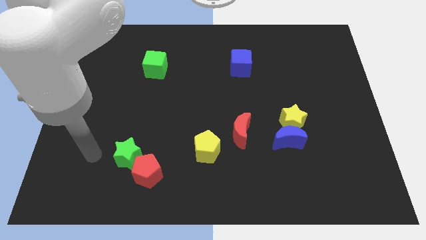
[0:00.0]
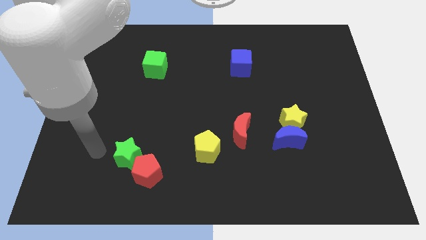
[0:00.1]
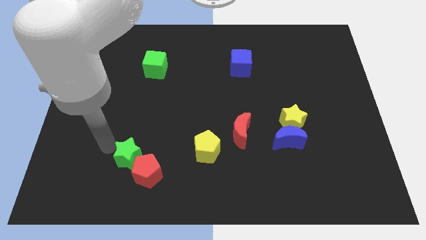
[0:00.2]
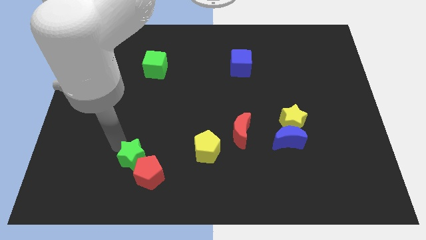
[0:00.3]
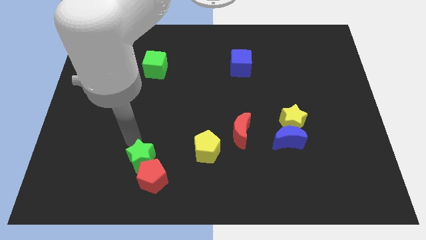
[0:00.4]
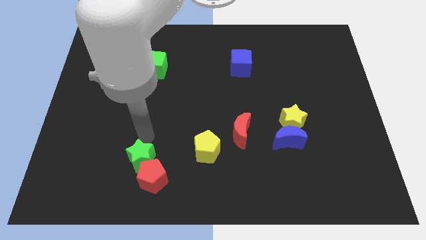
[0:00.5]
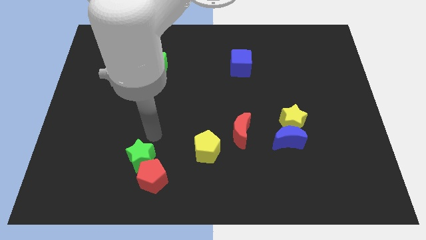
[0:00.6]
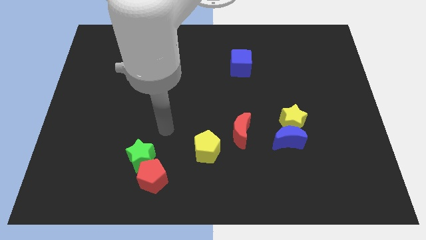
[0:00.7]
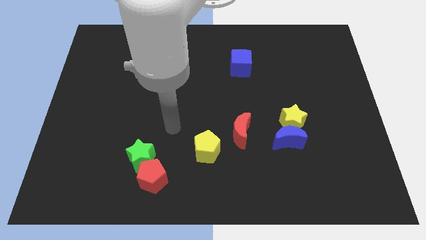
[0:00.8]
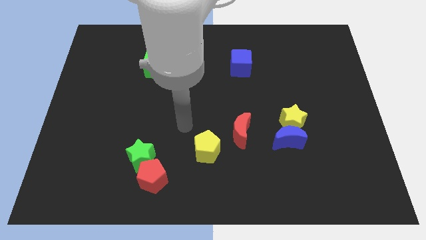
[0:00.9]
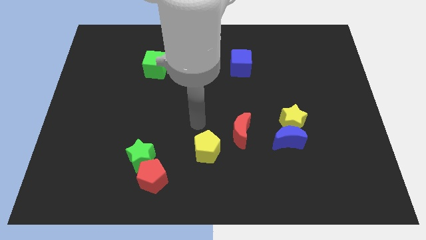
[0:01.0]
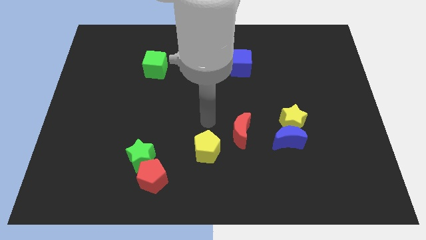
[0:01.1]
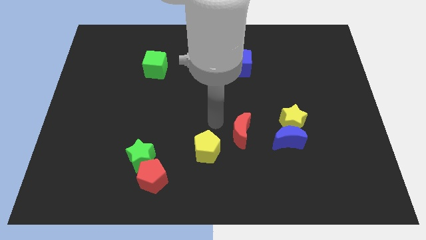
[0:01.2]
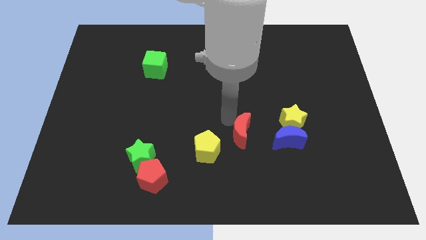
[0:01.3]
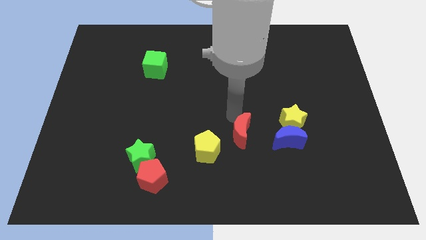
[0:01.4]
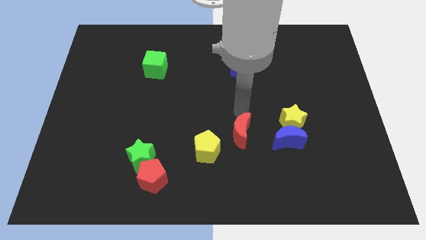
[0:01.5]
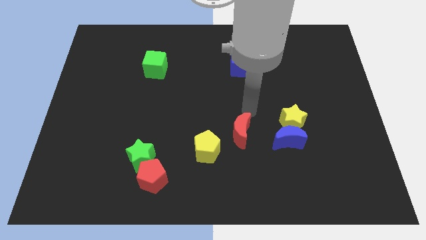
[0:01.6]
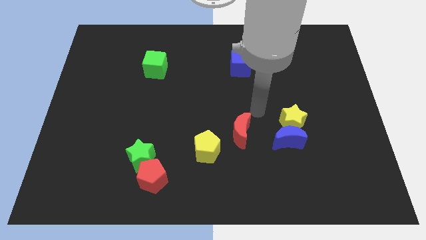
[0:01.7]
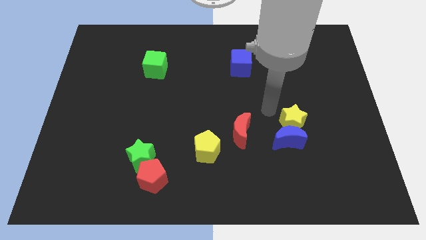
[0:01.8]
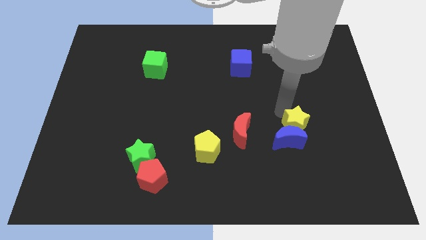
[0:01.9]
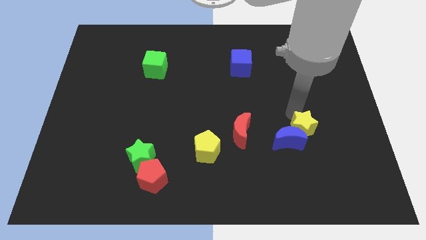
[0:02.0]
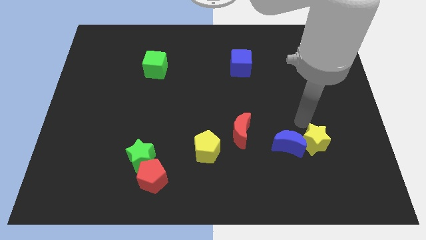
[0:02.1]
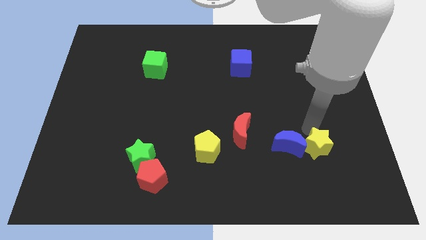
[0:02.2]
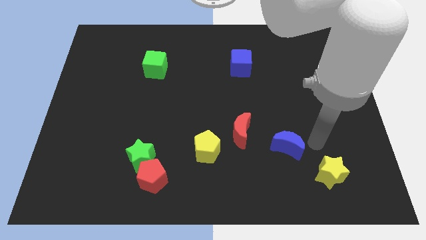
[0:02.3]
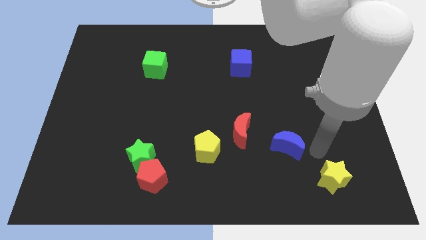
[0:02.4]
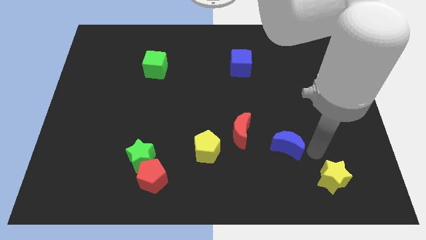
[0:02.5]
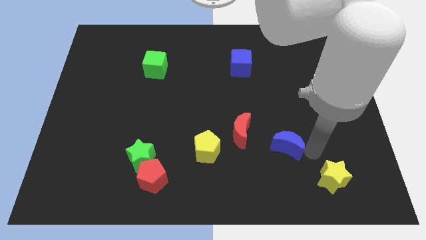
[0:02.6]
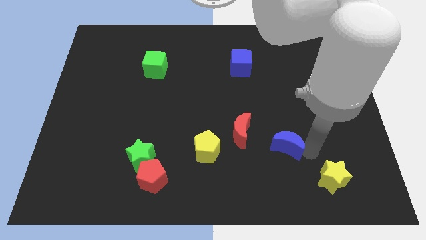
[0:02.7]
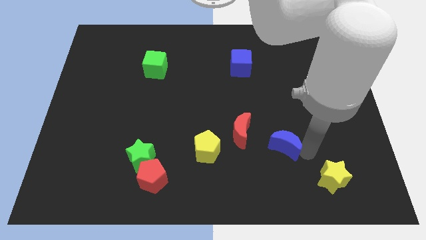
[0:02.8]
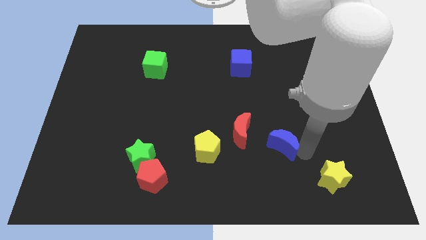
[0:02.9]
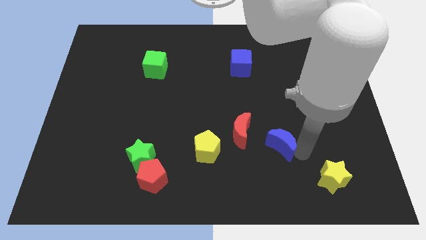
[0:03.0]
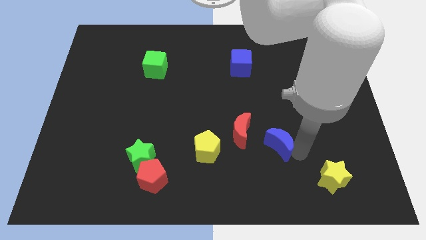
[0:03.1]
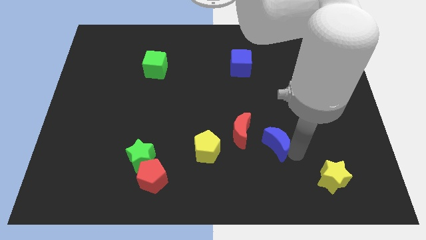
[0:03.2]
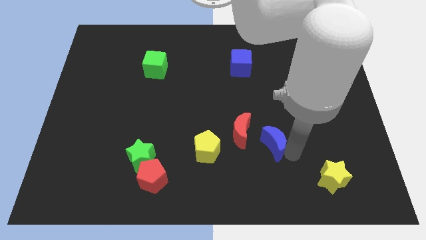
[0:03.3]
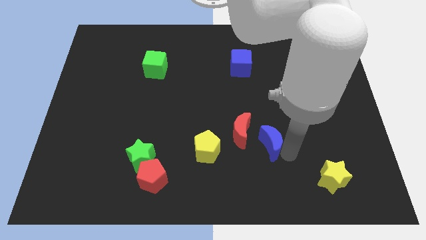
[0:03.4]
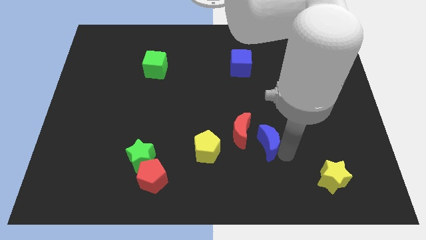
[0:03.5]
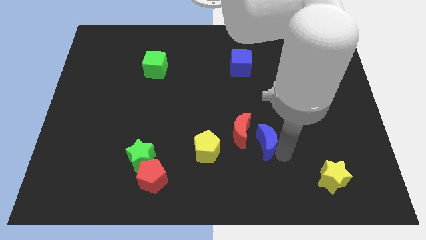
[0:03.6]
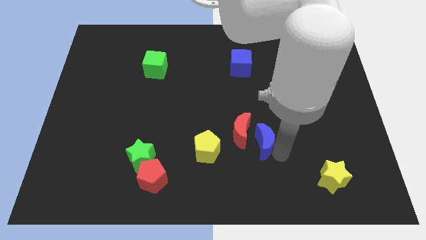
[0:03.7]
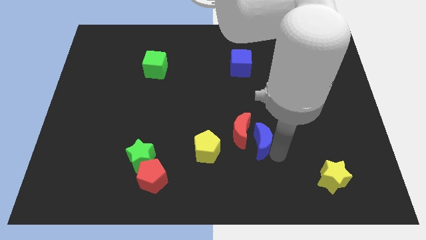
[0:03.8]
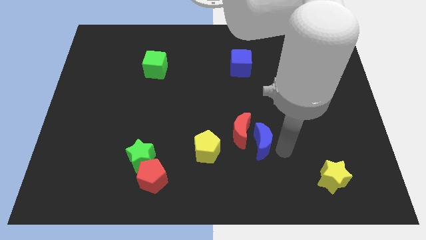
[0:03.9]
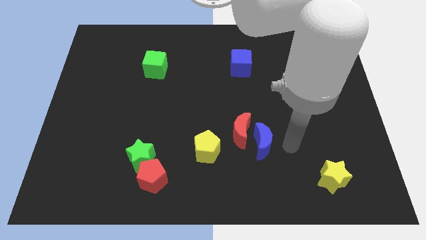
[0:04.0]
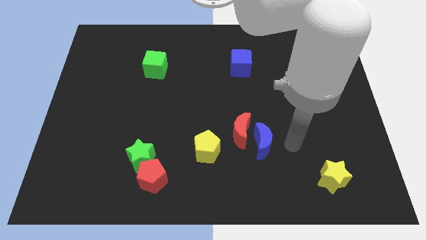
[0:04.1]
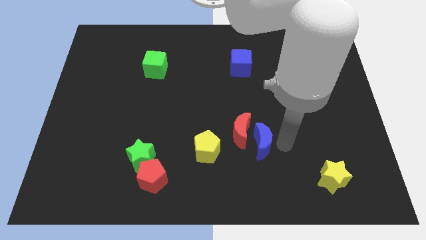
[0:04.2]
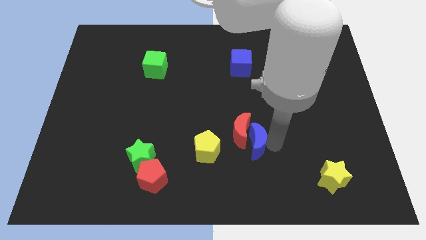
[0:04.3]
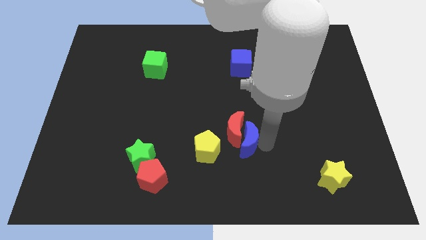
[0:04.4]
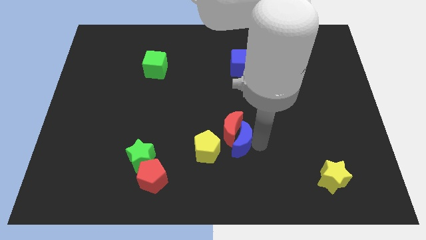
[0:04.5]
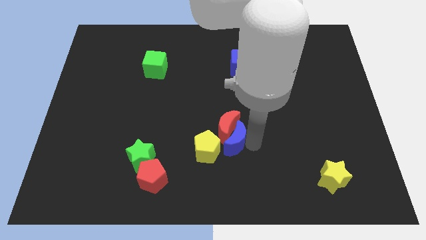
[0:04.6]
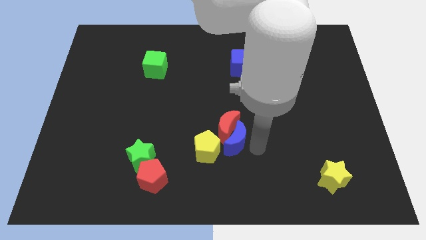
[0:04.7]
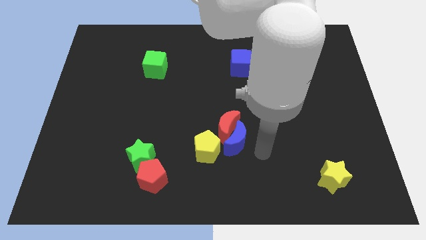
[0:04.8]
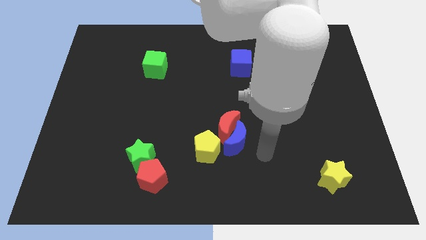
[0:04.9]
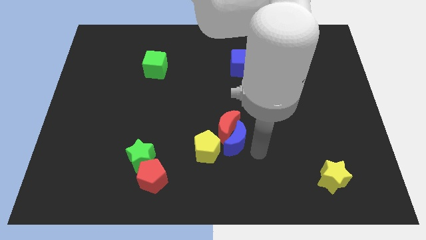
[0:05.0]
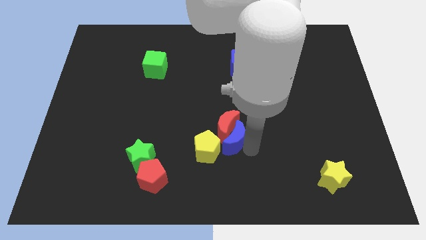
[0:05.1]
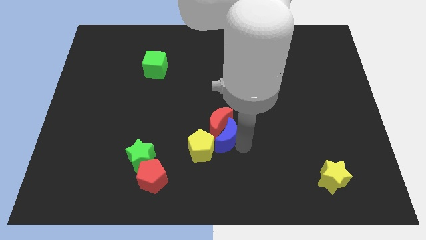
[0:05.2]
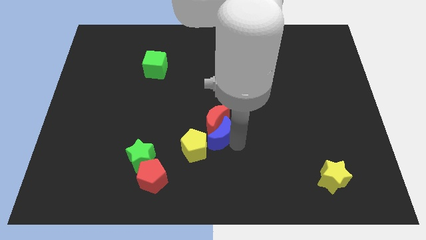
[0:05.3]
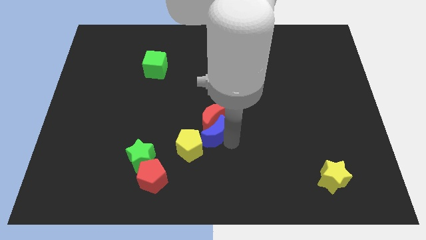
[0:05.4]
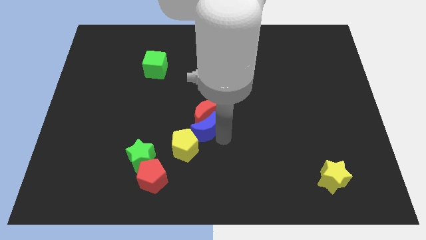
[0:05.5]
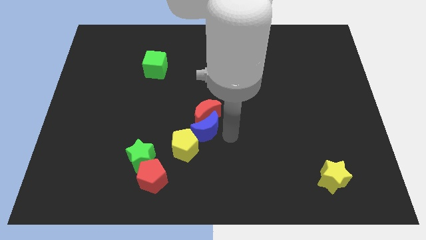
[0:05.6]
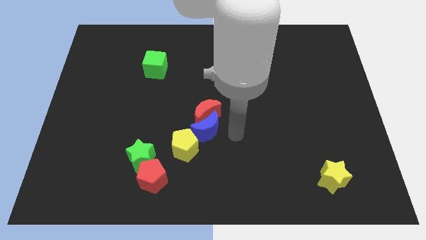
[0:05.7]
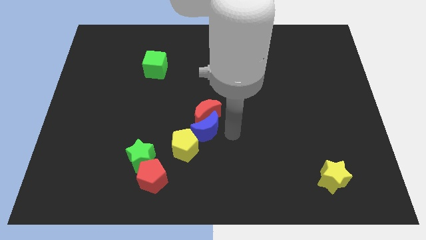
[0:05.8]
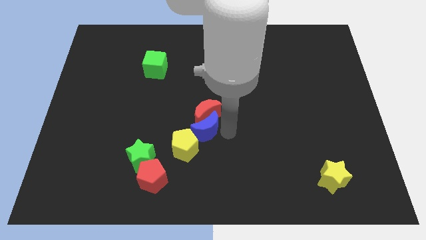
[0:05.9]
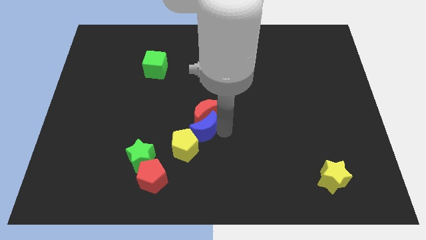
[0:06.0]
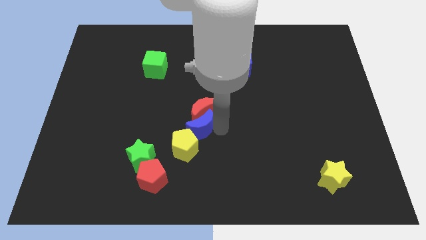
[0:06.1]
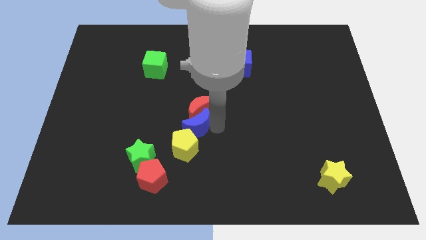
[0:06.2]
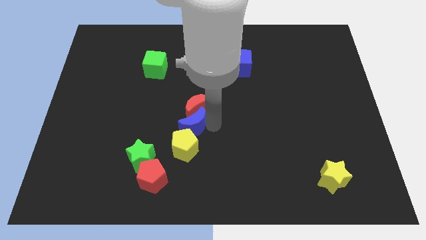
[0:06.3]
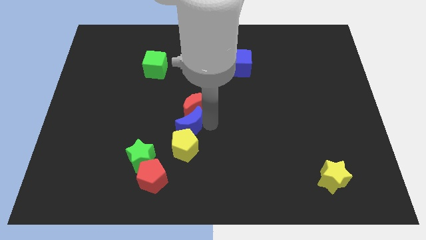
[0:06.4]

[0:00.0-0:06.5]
slide the blue moon to the top left of the yellow pentagon

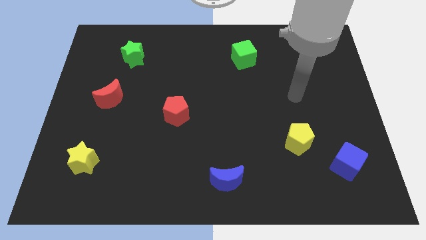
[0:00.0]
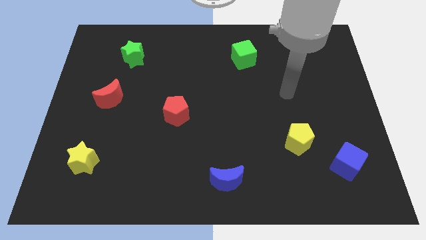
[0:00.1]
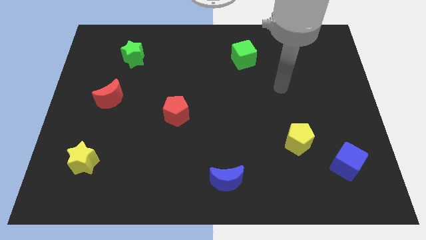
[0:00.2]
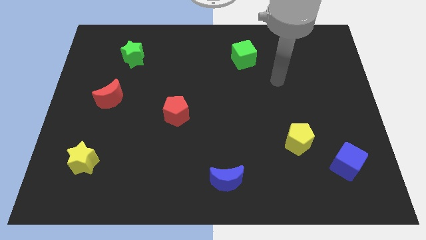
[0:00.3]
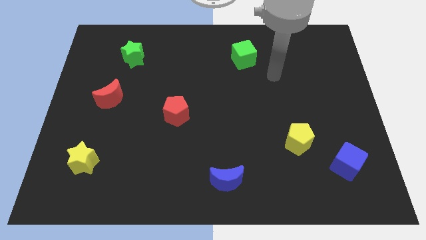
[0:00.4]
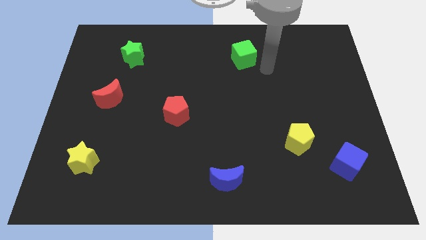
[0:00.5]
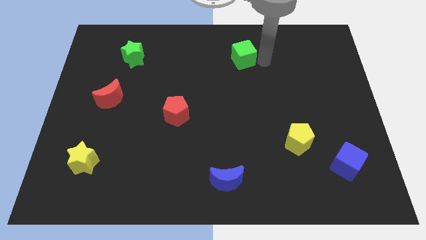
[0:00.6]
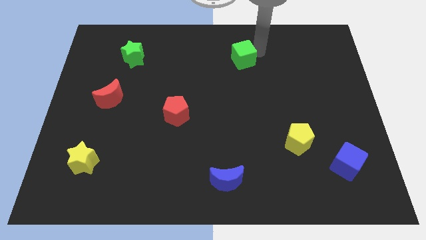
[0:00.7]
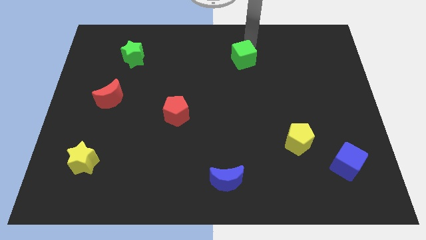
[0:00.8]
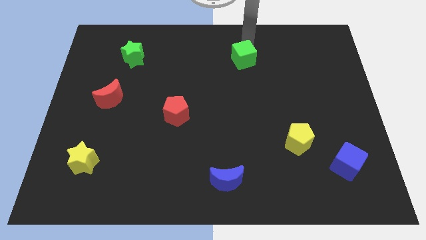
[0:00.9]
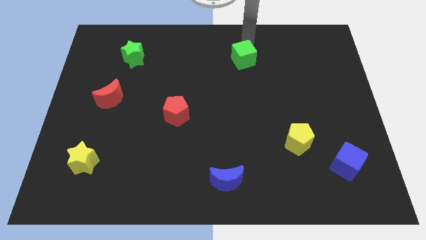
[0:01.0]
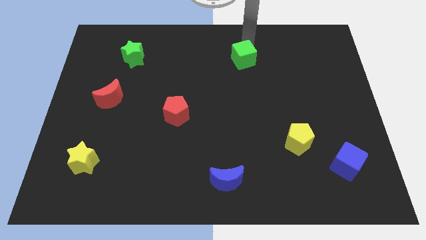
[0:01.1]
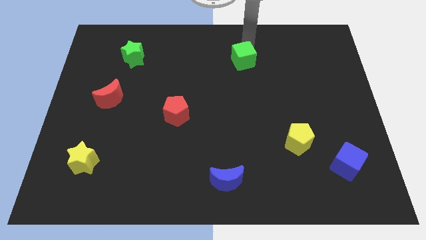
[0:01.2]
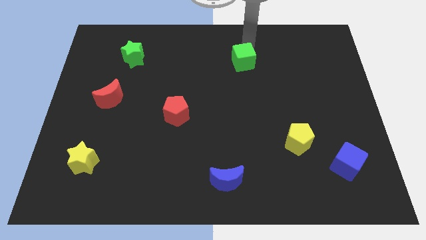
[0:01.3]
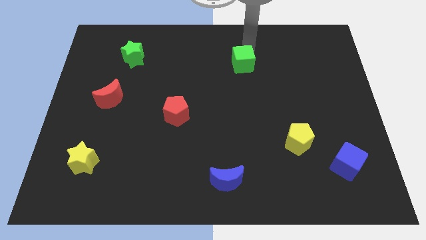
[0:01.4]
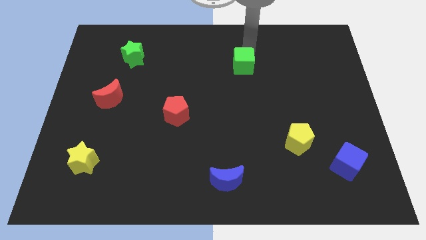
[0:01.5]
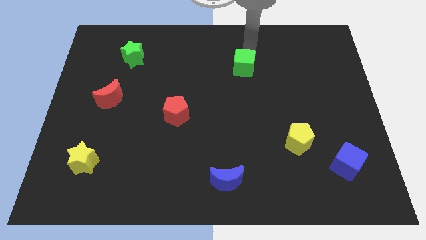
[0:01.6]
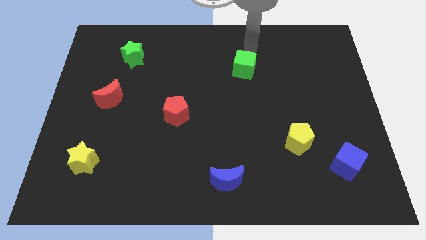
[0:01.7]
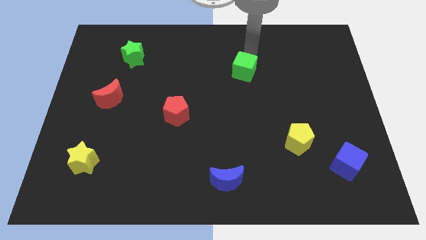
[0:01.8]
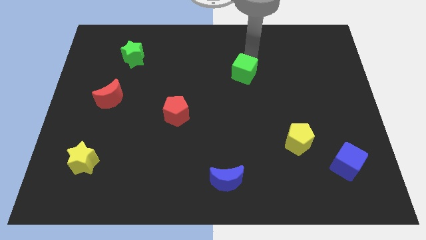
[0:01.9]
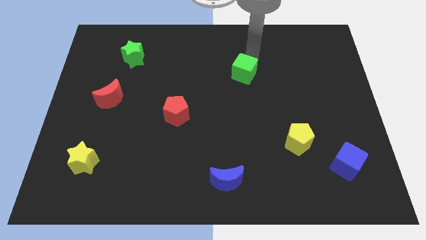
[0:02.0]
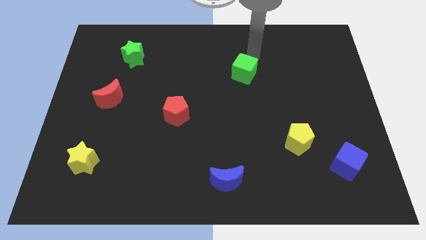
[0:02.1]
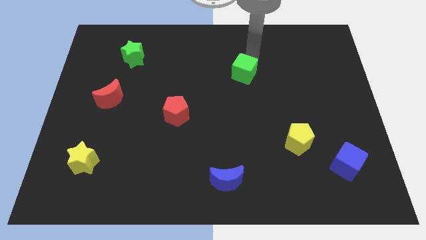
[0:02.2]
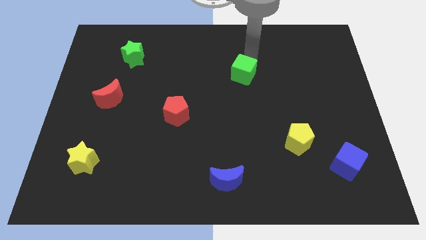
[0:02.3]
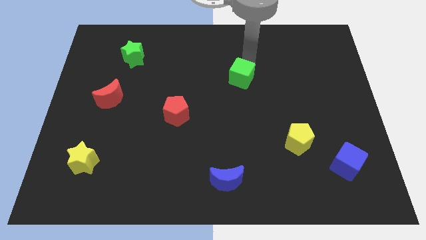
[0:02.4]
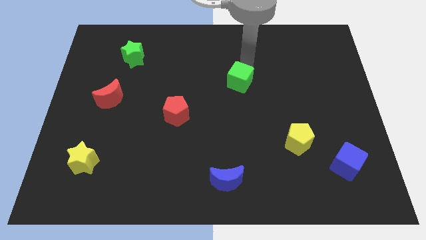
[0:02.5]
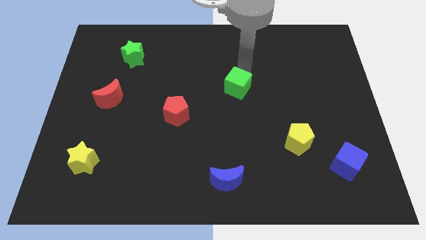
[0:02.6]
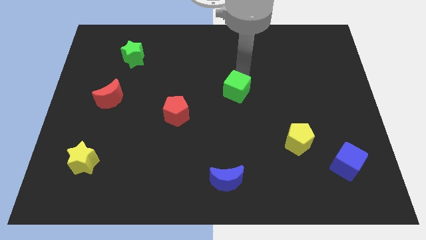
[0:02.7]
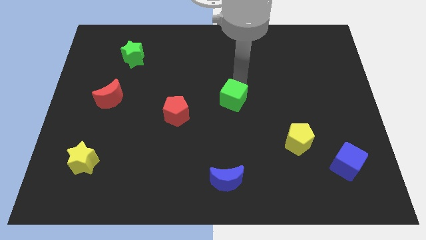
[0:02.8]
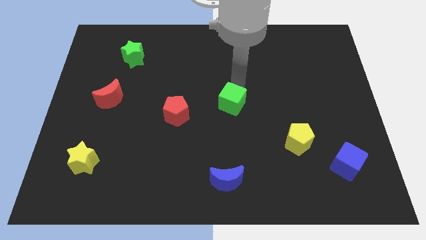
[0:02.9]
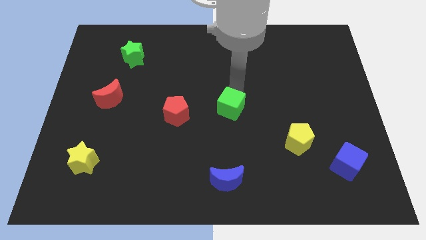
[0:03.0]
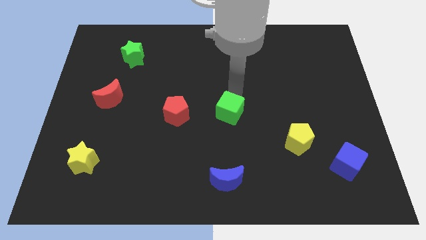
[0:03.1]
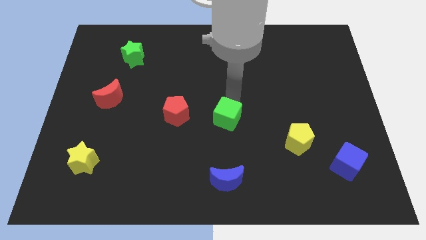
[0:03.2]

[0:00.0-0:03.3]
push the green cube to the top of the blue moon
